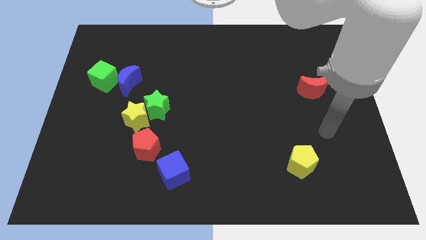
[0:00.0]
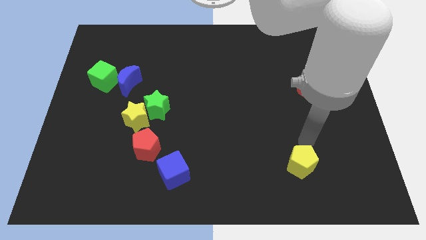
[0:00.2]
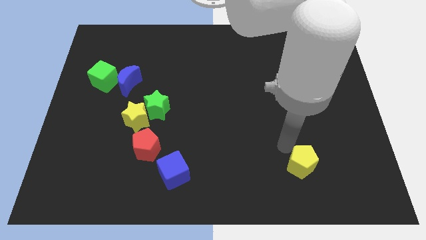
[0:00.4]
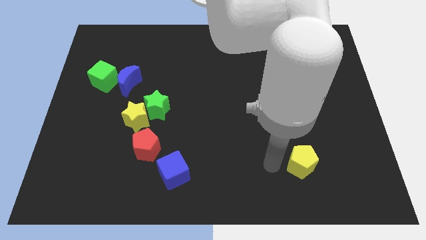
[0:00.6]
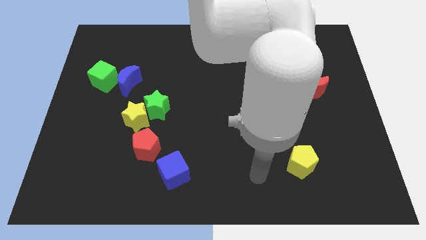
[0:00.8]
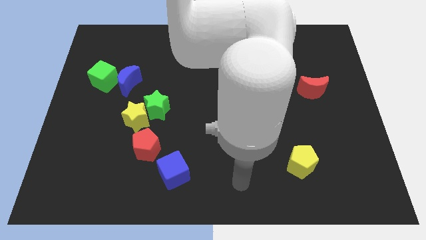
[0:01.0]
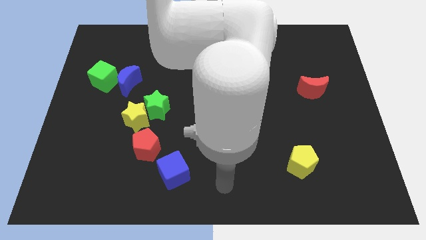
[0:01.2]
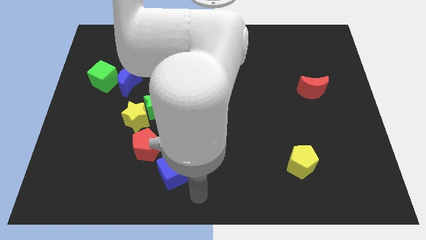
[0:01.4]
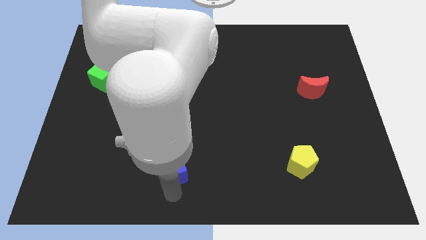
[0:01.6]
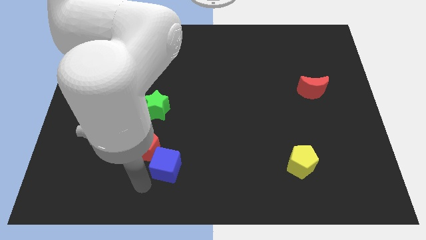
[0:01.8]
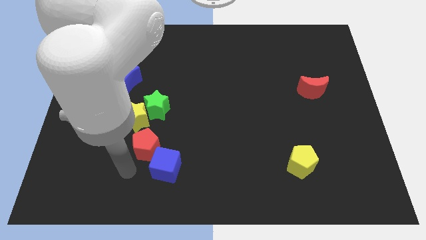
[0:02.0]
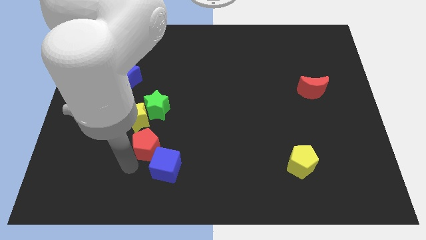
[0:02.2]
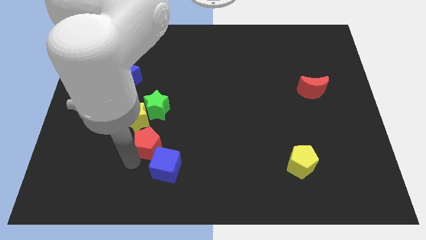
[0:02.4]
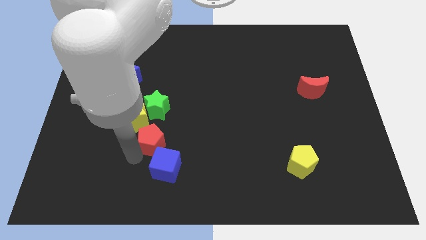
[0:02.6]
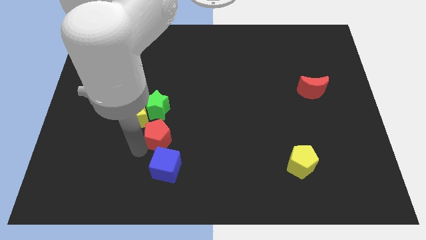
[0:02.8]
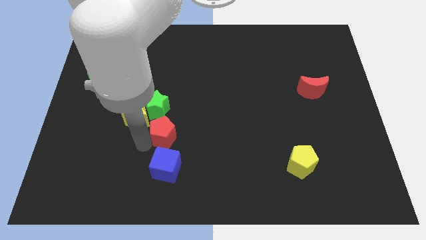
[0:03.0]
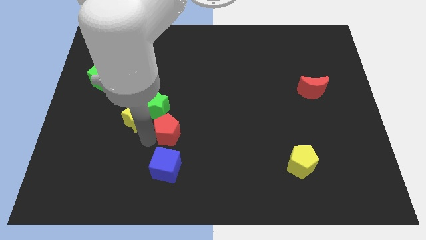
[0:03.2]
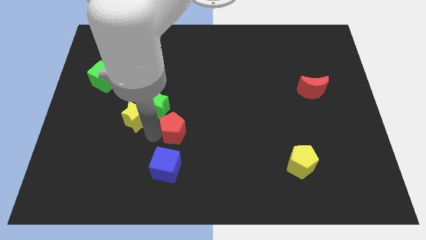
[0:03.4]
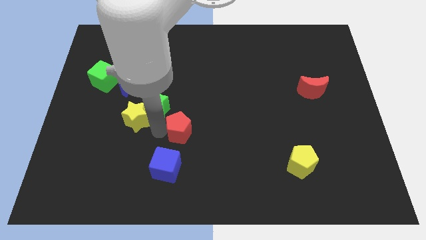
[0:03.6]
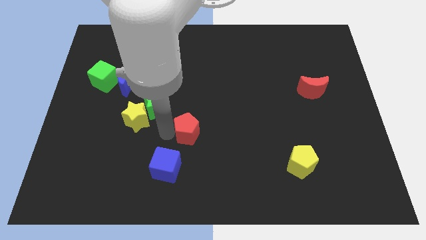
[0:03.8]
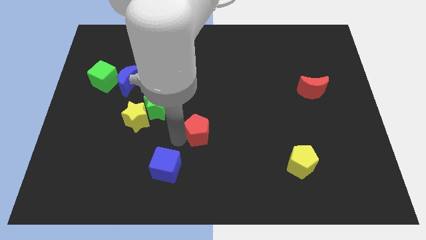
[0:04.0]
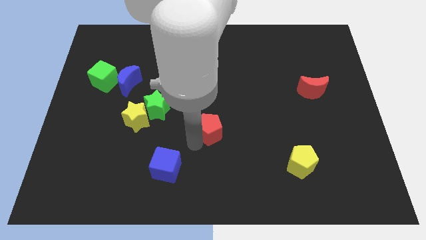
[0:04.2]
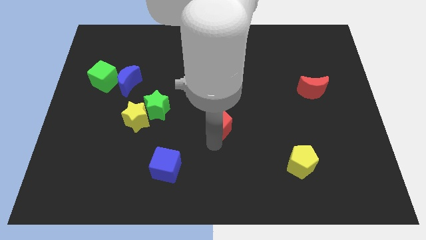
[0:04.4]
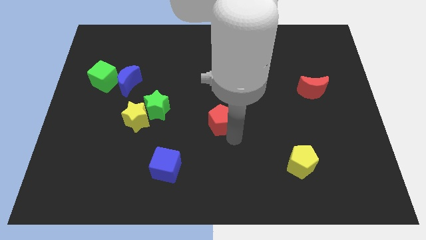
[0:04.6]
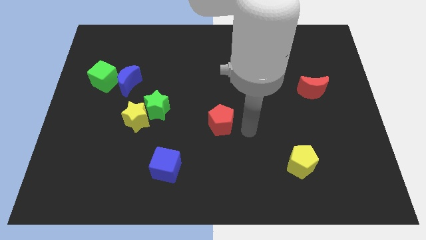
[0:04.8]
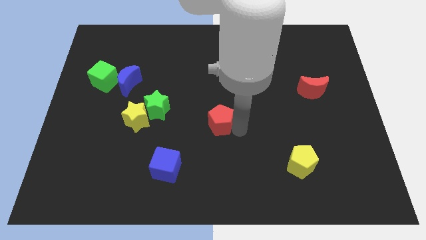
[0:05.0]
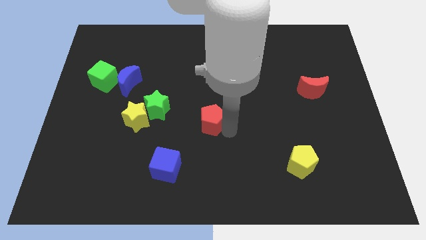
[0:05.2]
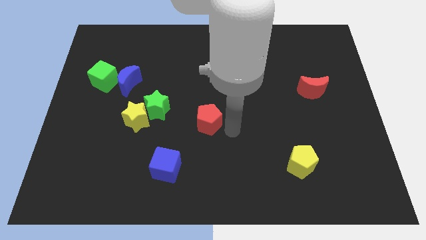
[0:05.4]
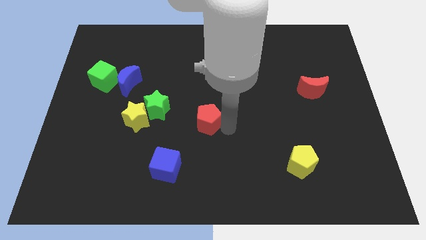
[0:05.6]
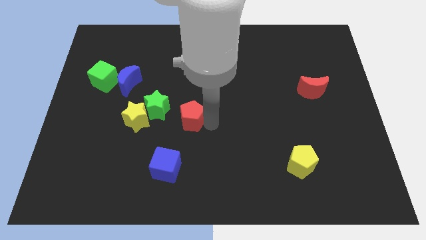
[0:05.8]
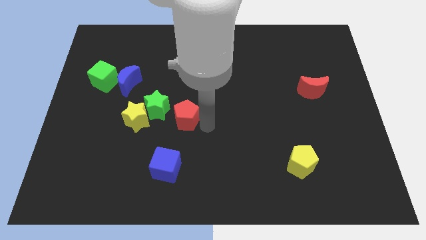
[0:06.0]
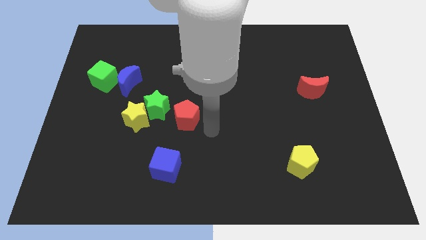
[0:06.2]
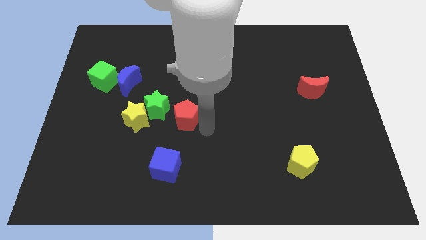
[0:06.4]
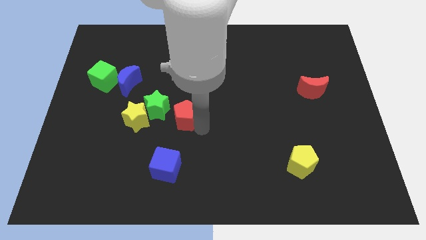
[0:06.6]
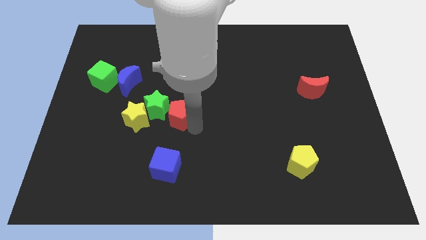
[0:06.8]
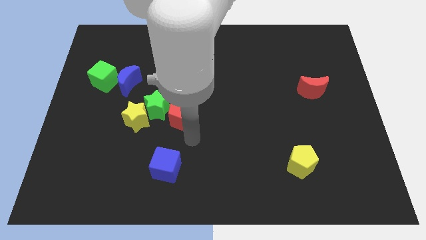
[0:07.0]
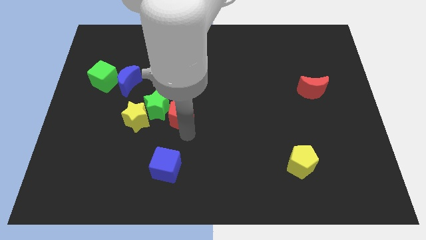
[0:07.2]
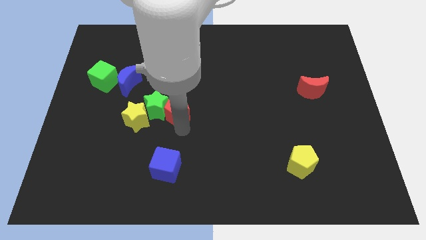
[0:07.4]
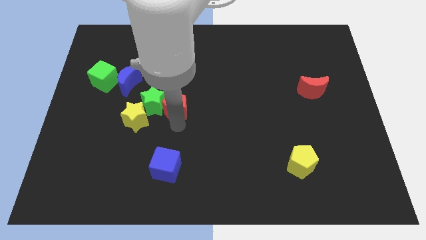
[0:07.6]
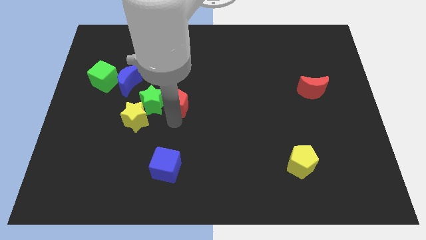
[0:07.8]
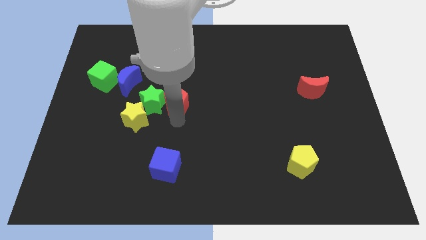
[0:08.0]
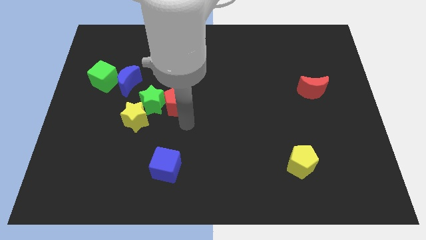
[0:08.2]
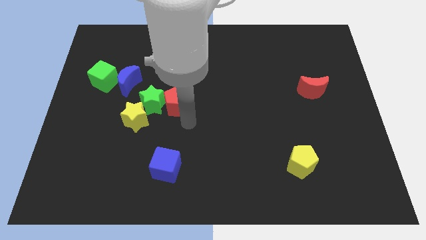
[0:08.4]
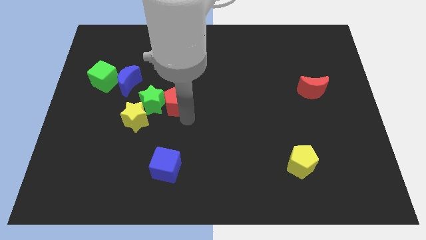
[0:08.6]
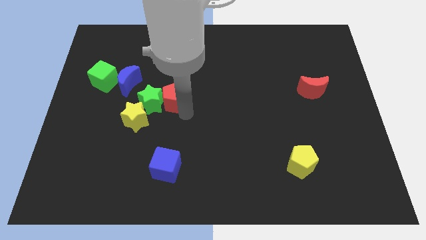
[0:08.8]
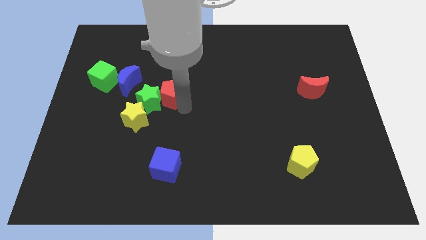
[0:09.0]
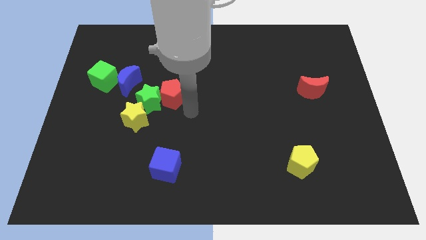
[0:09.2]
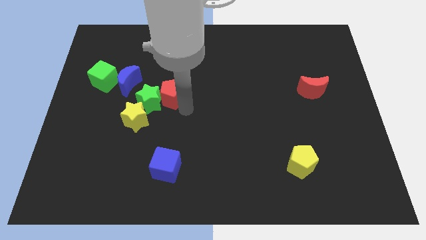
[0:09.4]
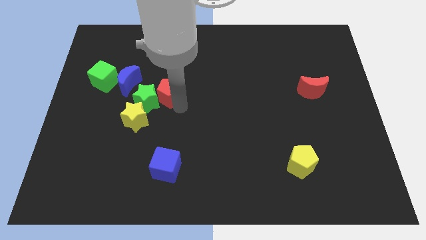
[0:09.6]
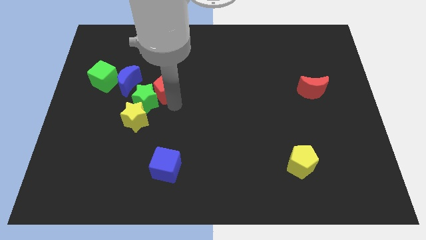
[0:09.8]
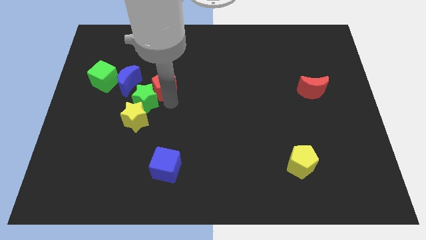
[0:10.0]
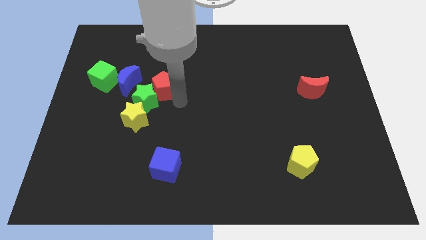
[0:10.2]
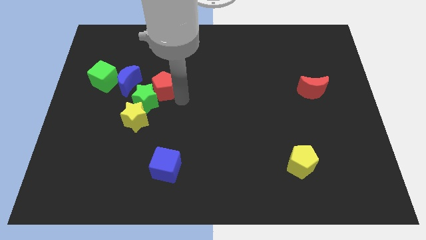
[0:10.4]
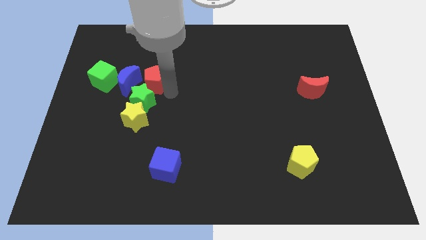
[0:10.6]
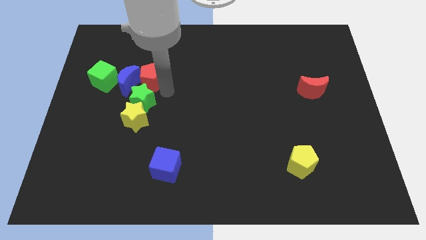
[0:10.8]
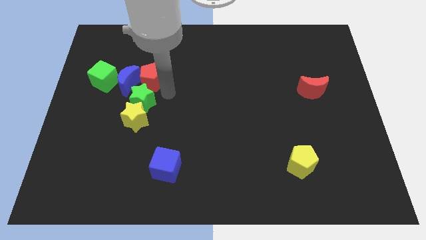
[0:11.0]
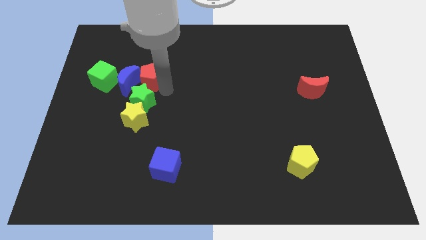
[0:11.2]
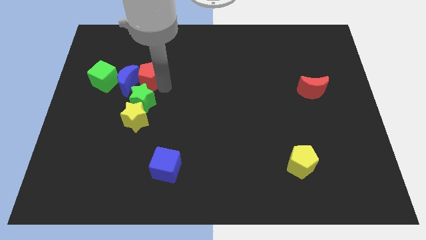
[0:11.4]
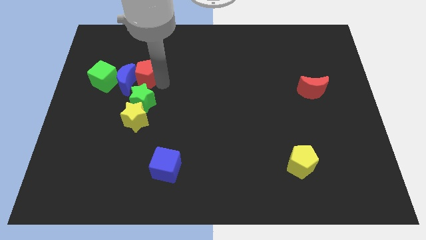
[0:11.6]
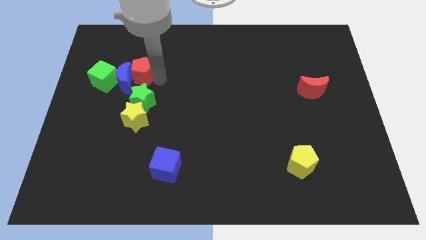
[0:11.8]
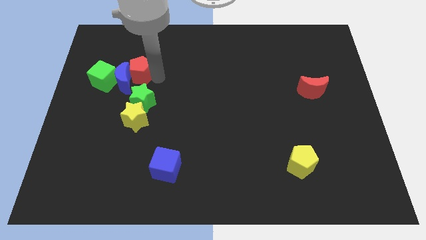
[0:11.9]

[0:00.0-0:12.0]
move the red pentagon diagonally up and to the right of the green cube

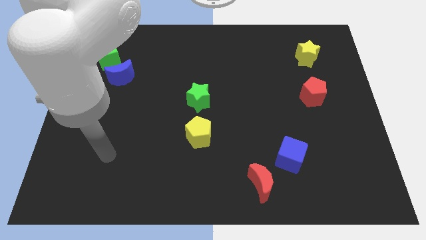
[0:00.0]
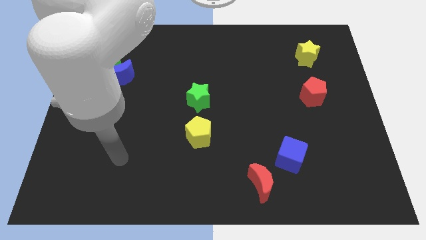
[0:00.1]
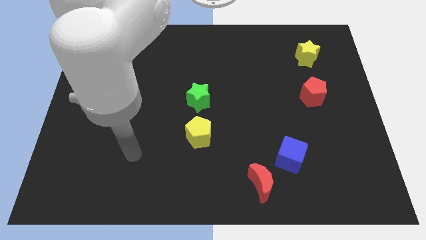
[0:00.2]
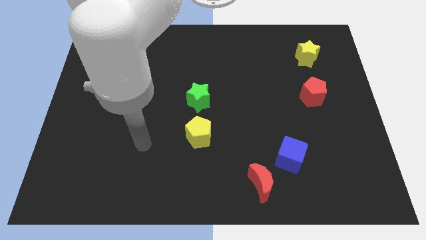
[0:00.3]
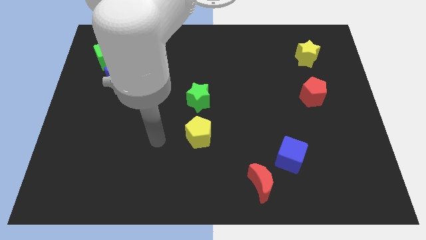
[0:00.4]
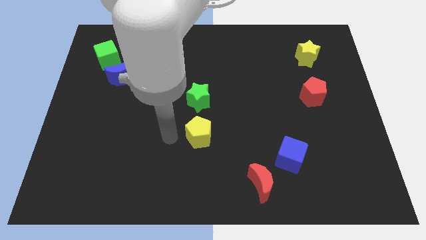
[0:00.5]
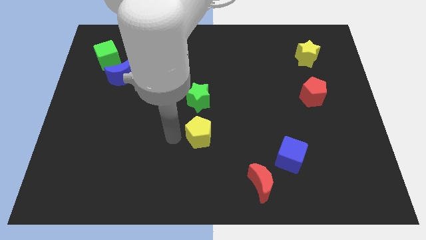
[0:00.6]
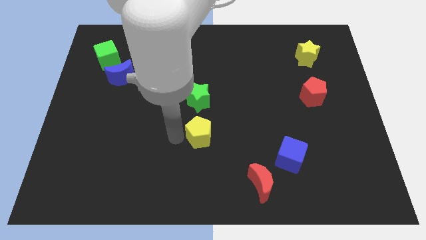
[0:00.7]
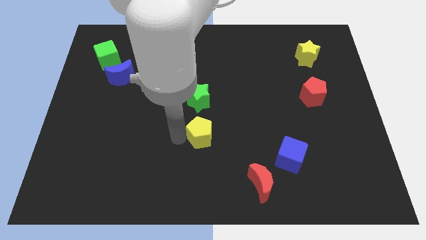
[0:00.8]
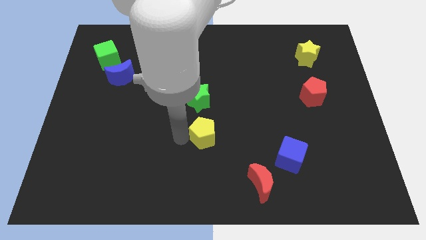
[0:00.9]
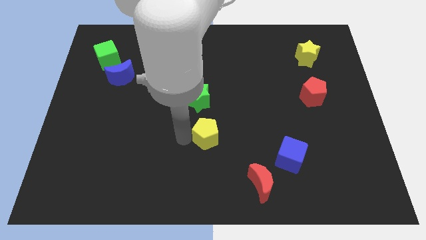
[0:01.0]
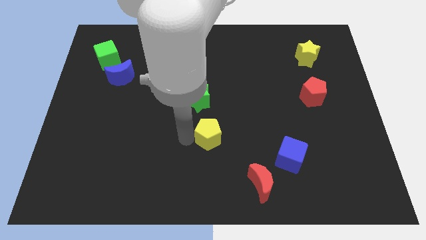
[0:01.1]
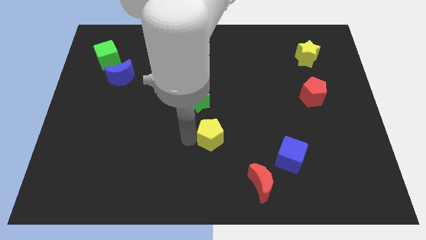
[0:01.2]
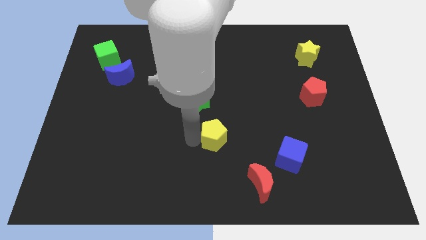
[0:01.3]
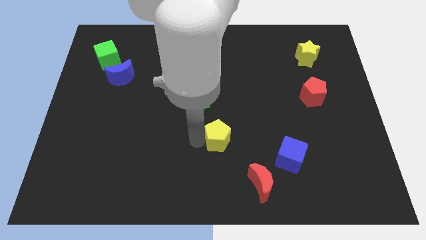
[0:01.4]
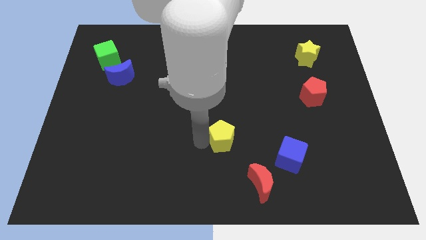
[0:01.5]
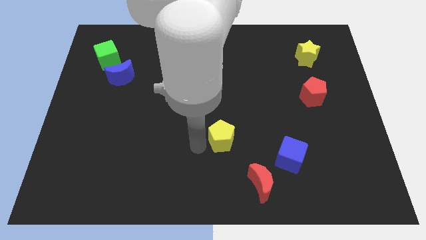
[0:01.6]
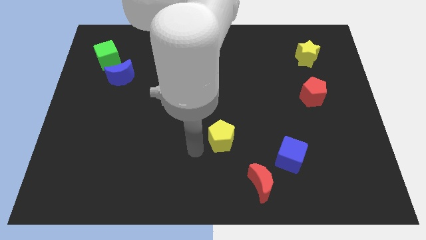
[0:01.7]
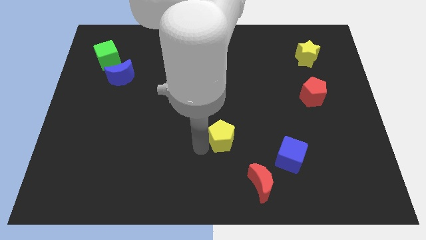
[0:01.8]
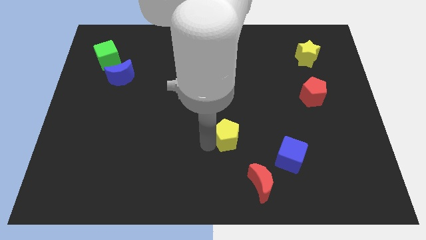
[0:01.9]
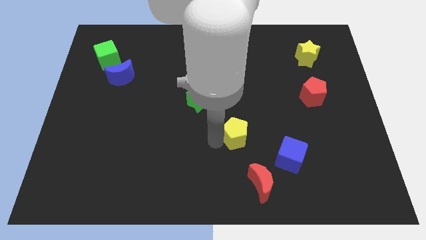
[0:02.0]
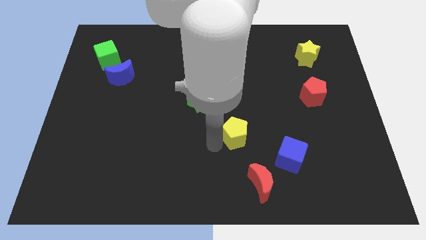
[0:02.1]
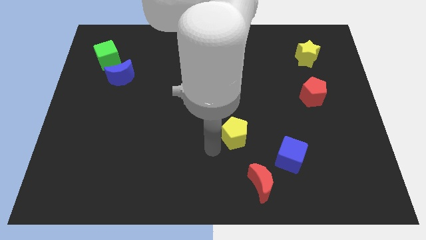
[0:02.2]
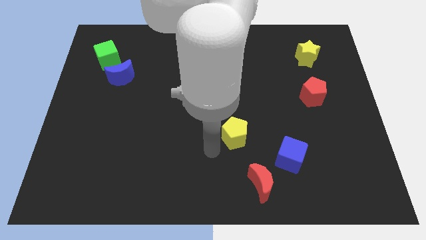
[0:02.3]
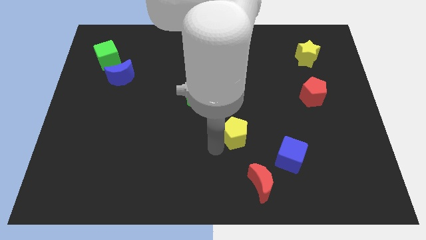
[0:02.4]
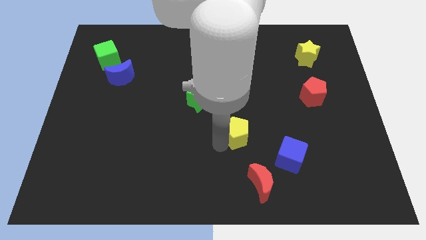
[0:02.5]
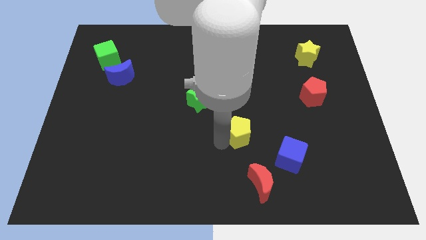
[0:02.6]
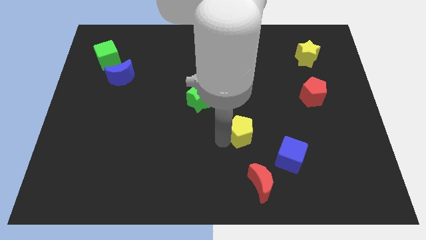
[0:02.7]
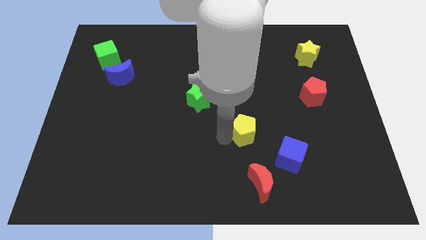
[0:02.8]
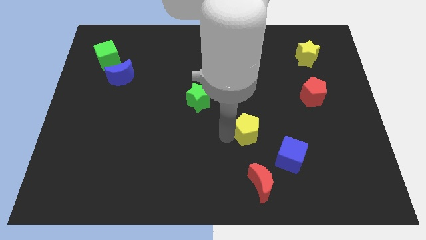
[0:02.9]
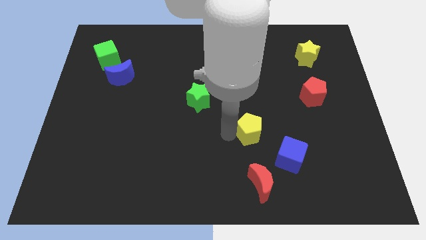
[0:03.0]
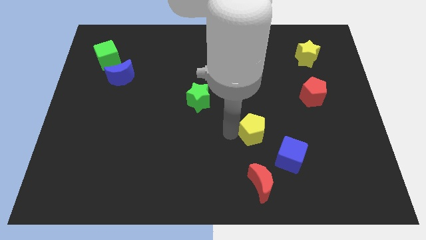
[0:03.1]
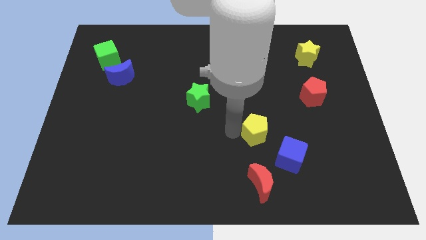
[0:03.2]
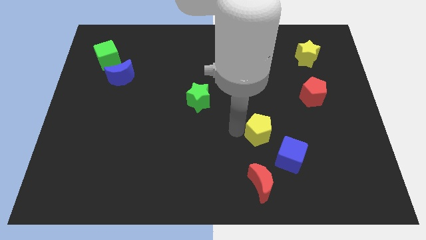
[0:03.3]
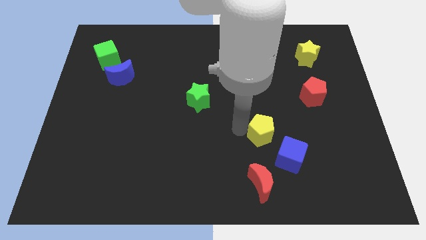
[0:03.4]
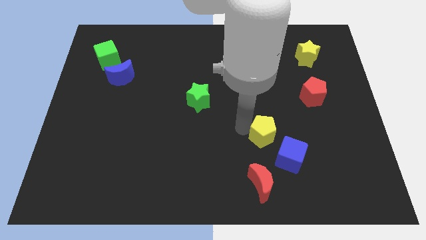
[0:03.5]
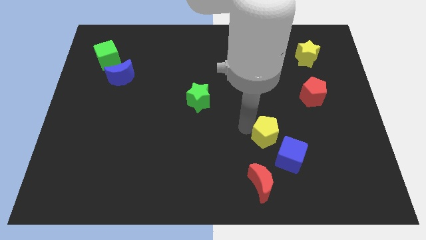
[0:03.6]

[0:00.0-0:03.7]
push the yellow pentagon to the top side of the blue cube
